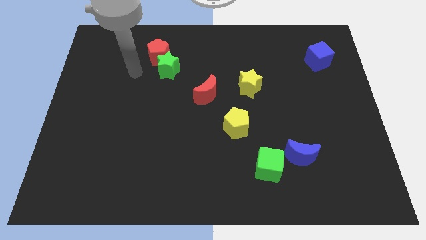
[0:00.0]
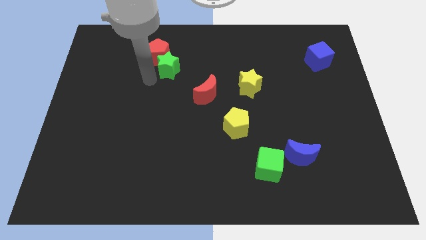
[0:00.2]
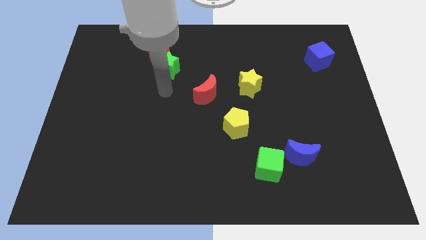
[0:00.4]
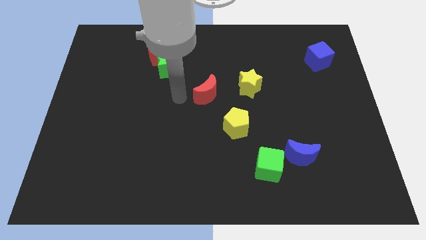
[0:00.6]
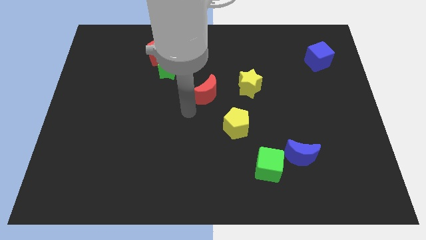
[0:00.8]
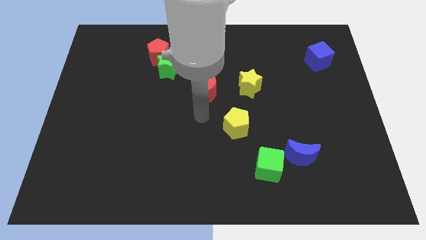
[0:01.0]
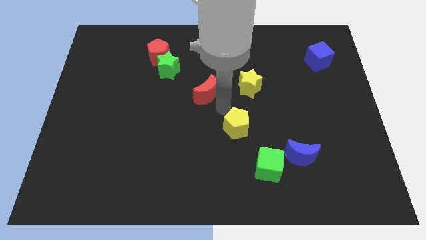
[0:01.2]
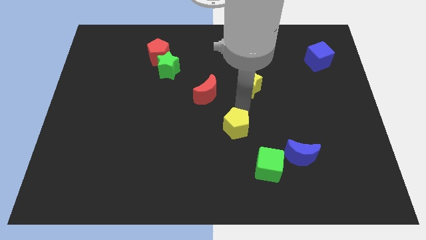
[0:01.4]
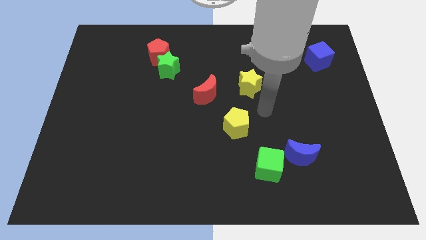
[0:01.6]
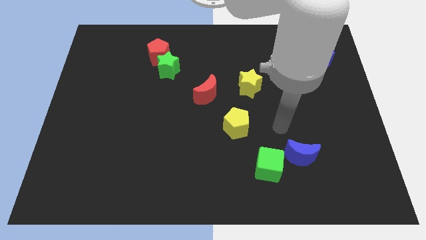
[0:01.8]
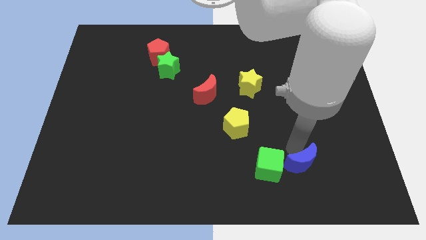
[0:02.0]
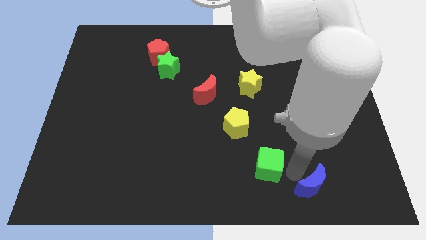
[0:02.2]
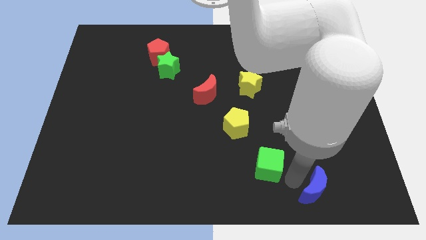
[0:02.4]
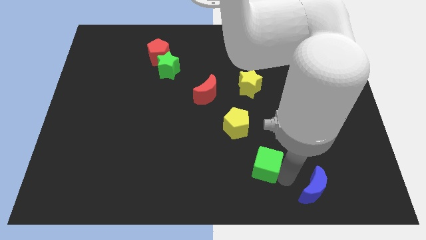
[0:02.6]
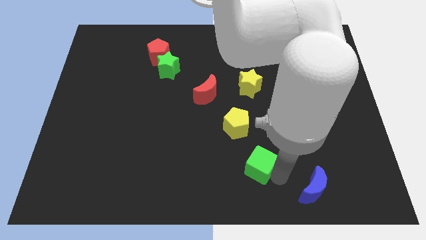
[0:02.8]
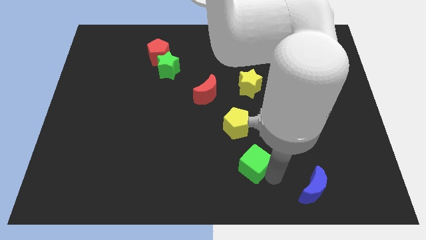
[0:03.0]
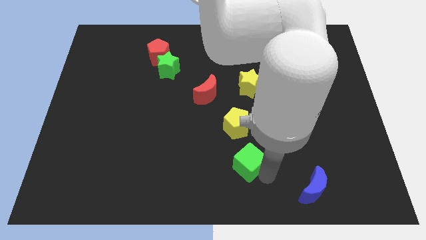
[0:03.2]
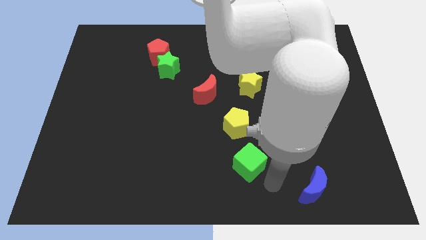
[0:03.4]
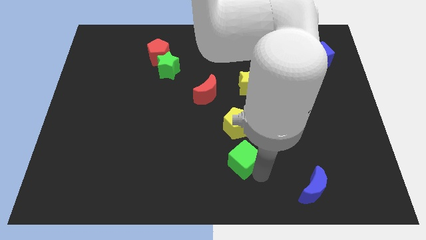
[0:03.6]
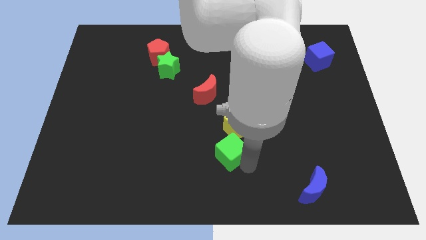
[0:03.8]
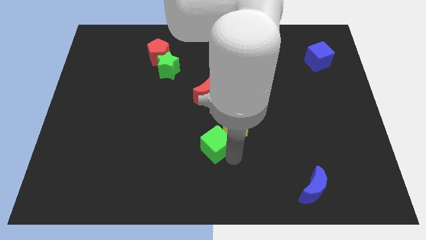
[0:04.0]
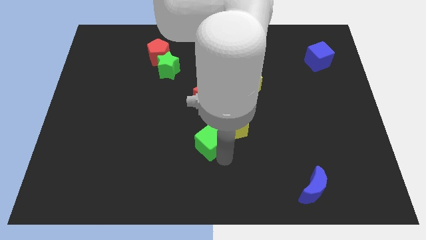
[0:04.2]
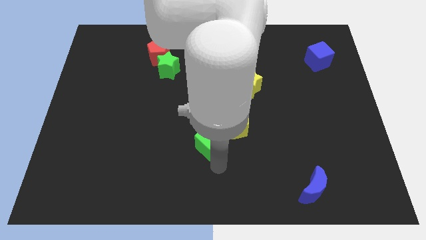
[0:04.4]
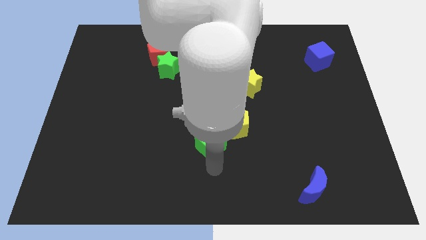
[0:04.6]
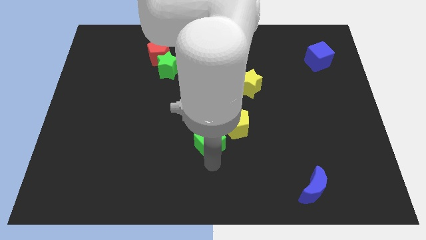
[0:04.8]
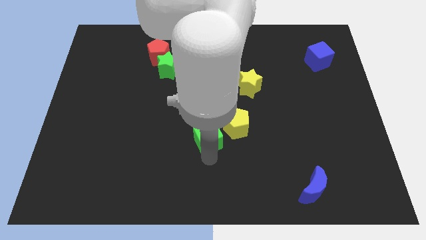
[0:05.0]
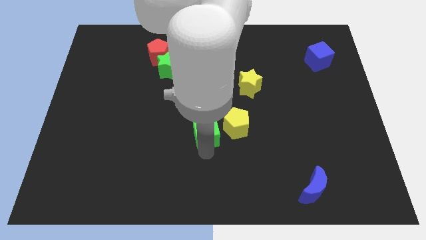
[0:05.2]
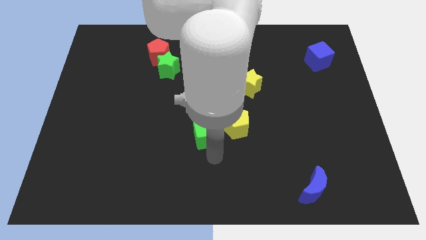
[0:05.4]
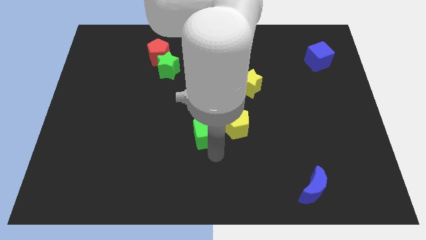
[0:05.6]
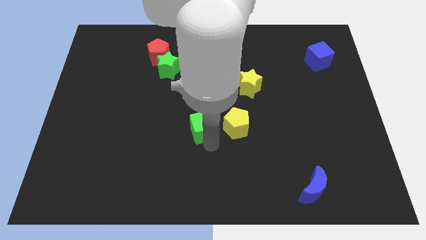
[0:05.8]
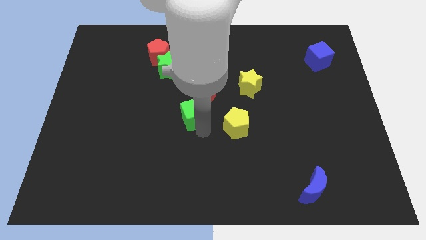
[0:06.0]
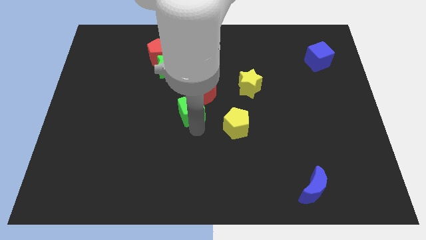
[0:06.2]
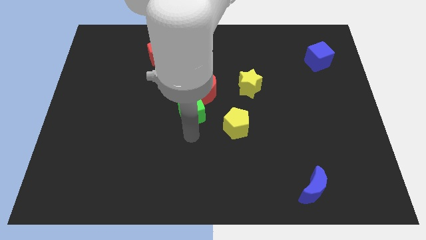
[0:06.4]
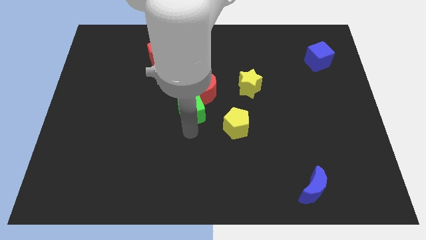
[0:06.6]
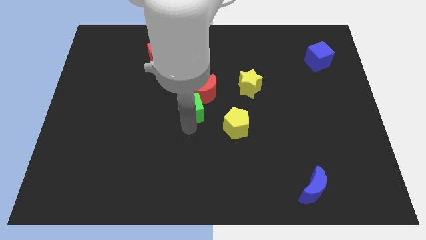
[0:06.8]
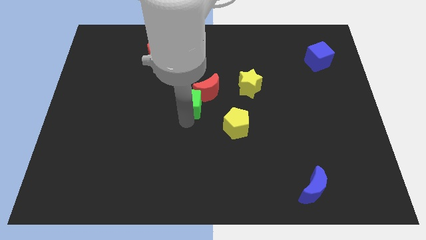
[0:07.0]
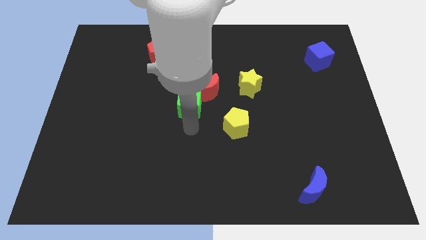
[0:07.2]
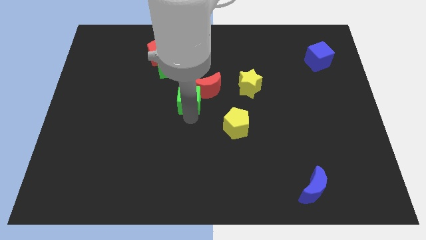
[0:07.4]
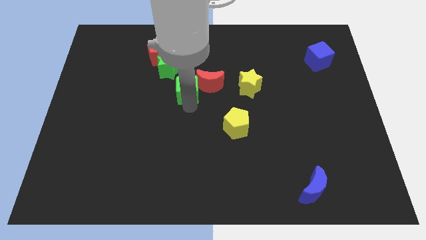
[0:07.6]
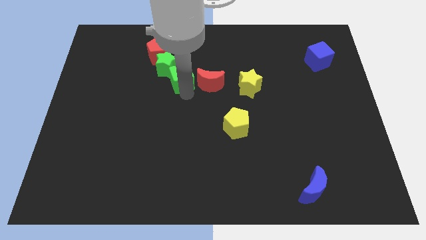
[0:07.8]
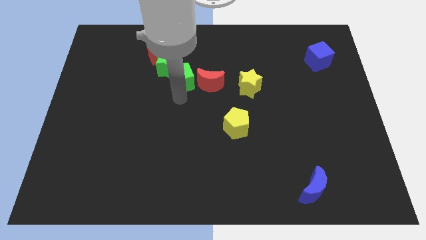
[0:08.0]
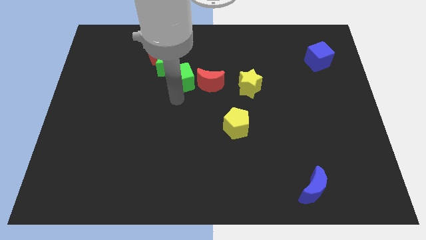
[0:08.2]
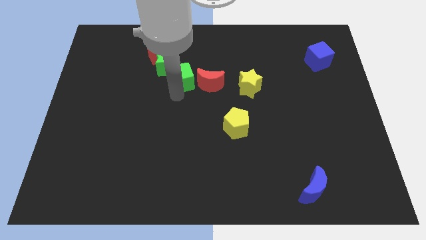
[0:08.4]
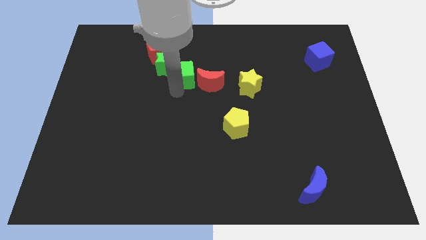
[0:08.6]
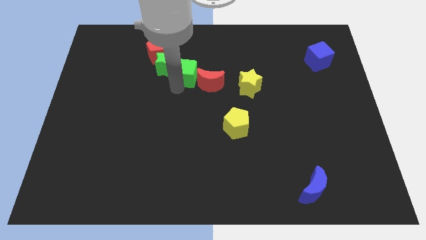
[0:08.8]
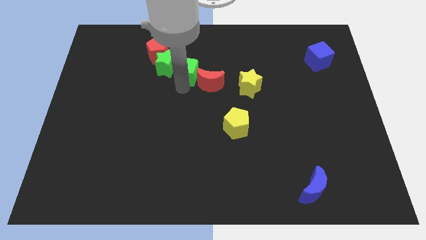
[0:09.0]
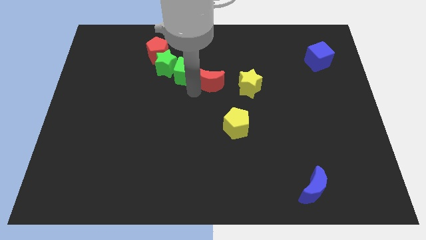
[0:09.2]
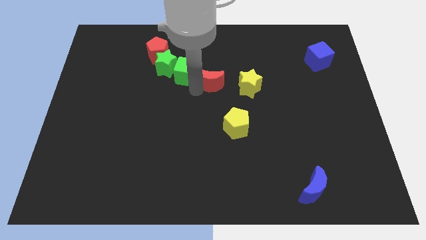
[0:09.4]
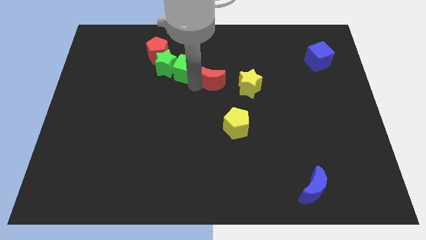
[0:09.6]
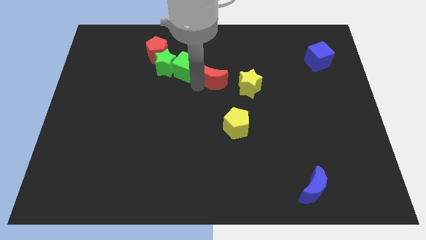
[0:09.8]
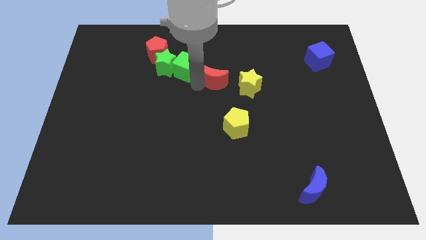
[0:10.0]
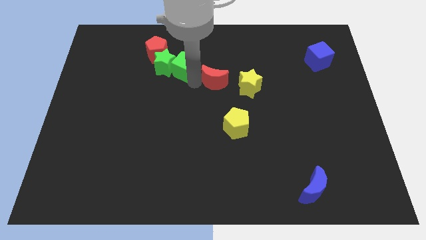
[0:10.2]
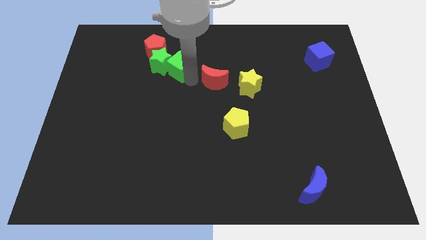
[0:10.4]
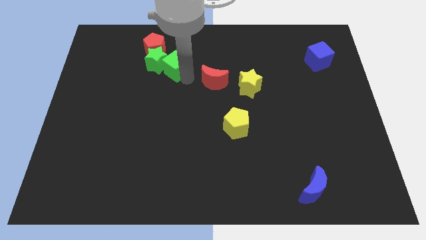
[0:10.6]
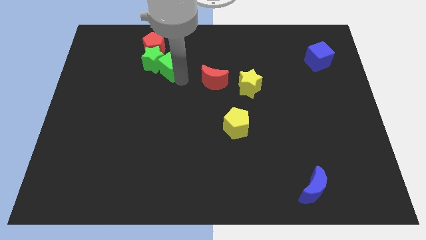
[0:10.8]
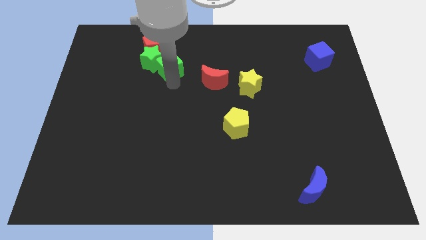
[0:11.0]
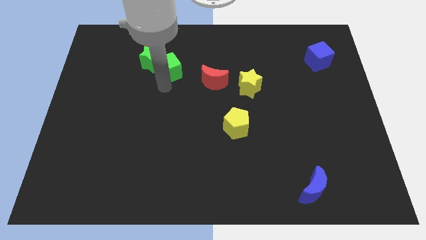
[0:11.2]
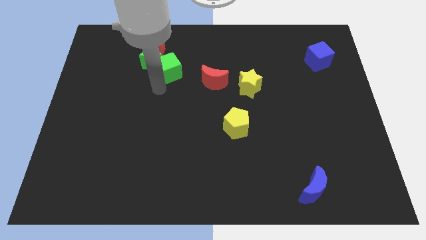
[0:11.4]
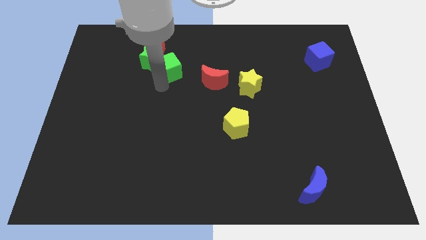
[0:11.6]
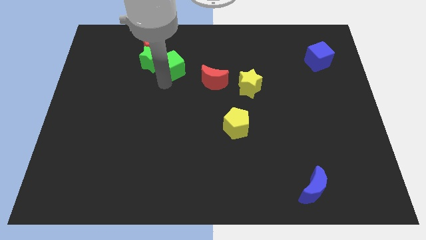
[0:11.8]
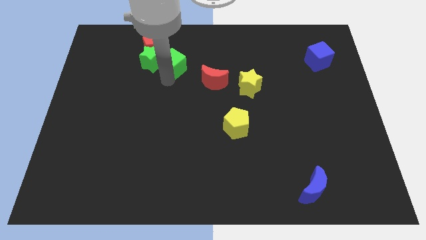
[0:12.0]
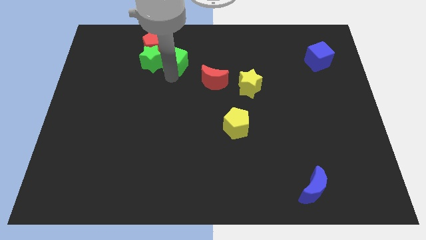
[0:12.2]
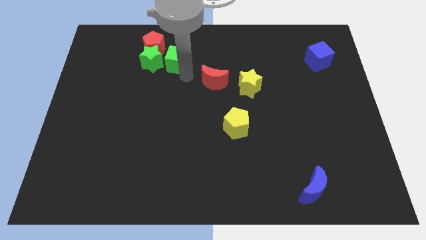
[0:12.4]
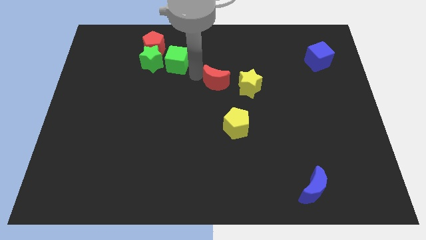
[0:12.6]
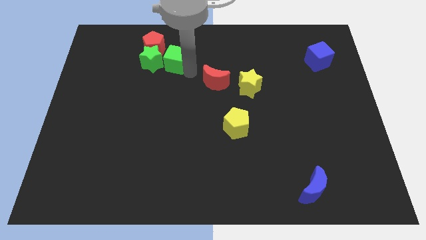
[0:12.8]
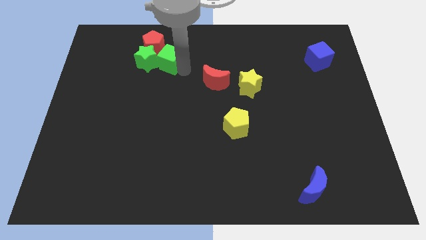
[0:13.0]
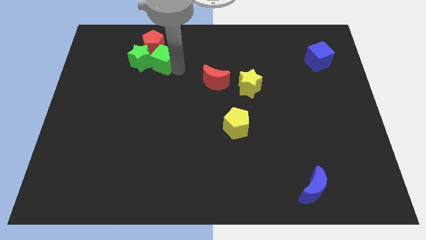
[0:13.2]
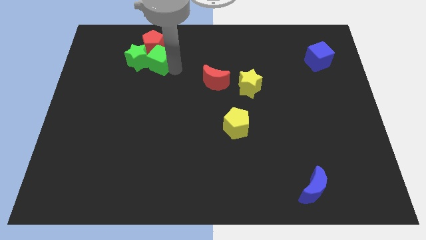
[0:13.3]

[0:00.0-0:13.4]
move the green cube to the red pentagon
